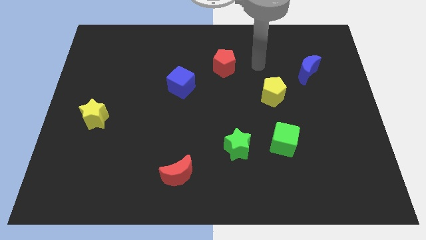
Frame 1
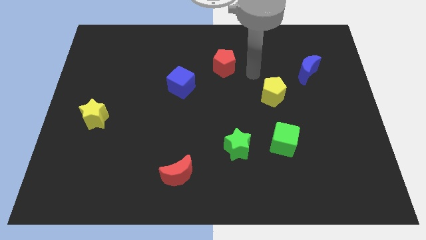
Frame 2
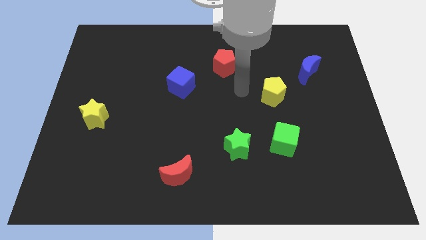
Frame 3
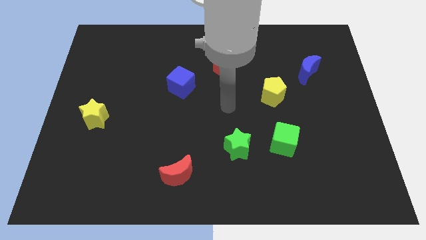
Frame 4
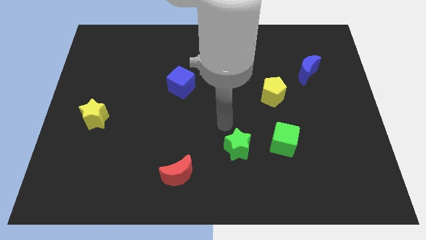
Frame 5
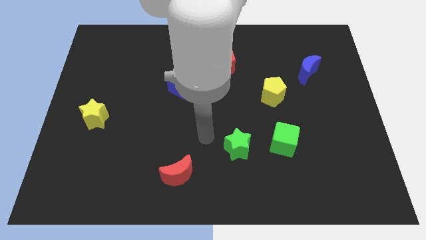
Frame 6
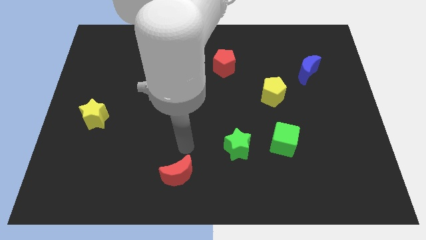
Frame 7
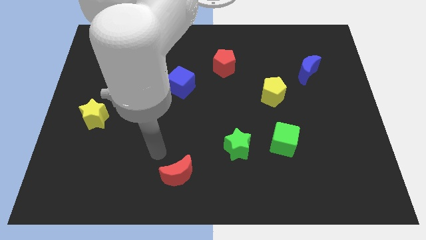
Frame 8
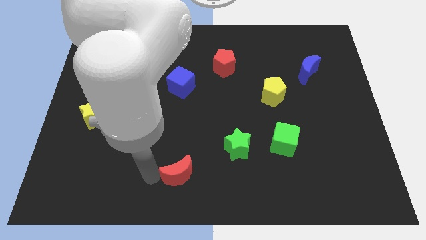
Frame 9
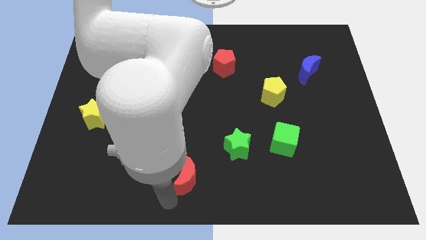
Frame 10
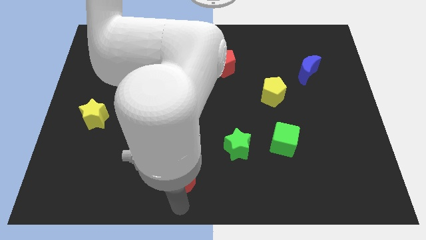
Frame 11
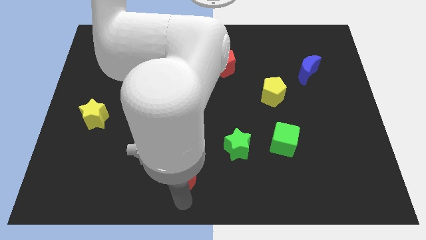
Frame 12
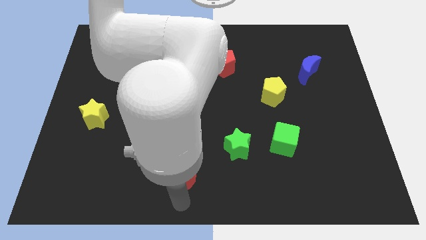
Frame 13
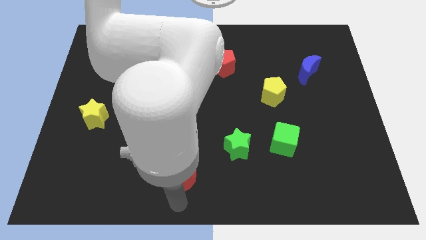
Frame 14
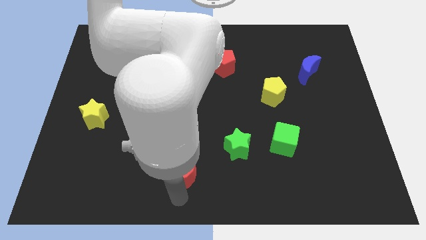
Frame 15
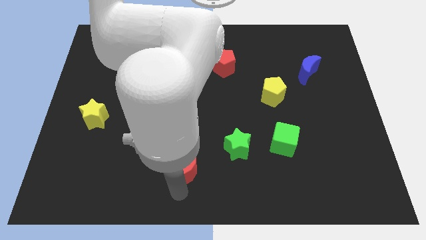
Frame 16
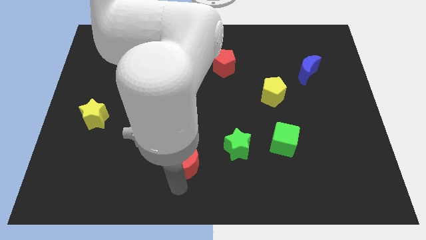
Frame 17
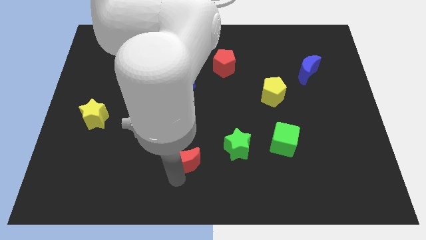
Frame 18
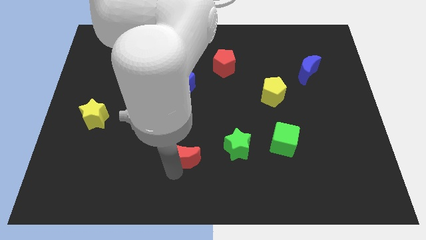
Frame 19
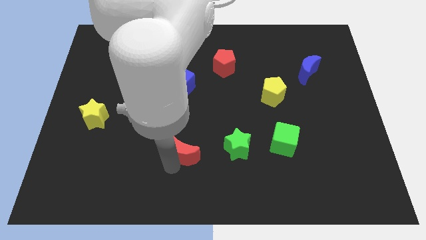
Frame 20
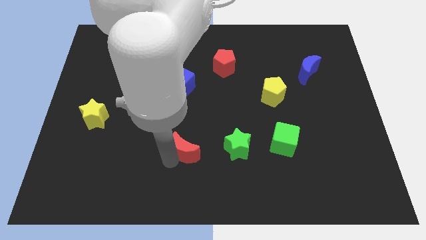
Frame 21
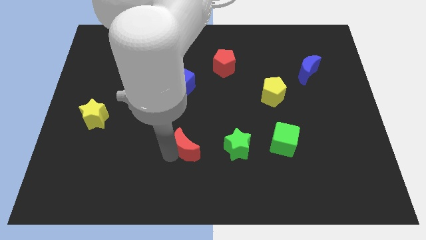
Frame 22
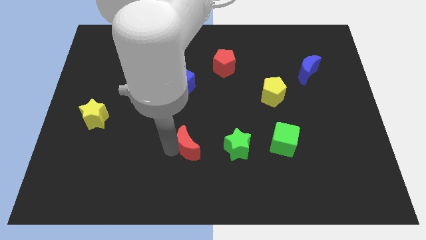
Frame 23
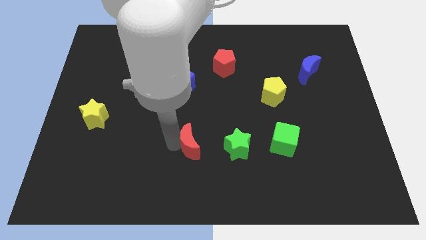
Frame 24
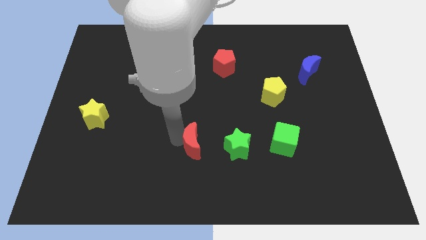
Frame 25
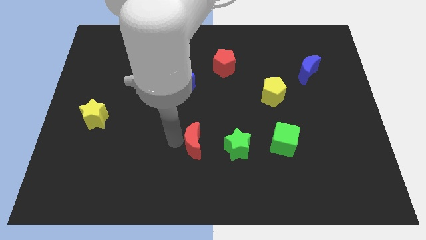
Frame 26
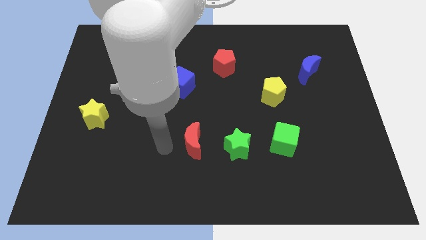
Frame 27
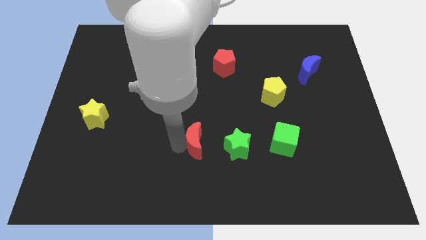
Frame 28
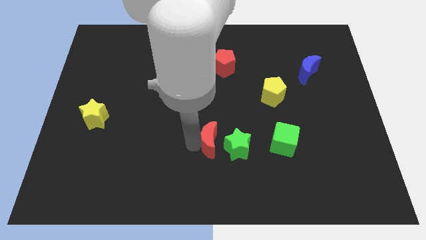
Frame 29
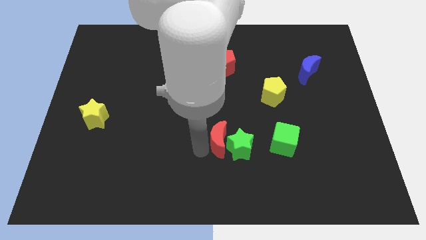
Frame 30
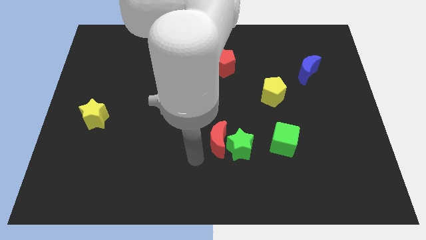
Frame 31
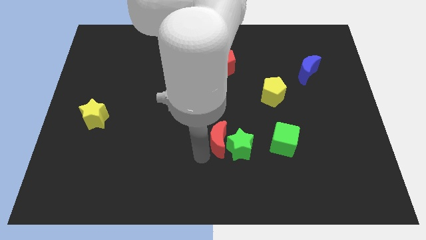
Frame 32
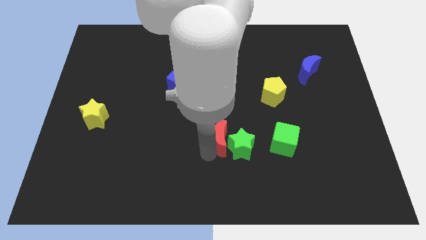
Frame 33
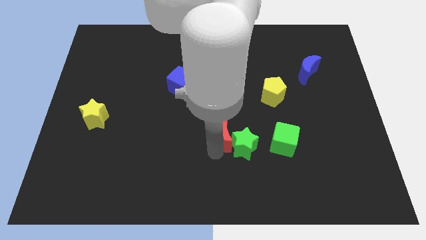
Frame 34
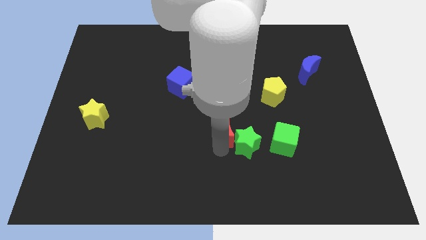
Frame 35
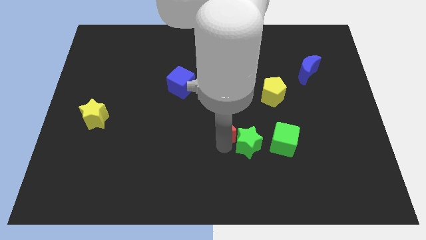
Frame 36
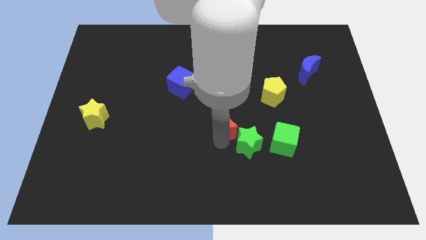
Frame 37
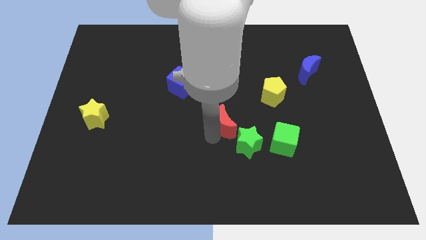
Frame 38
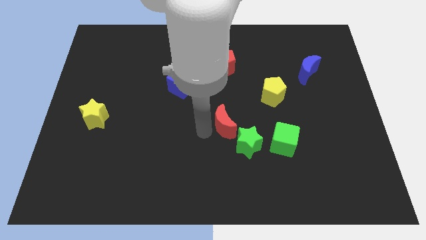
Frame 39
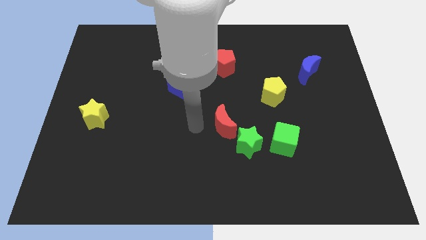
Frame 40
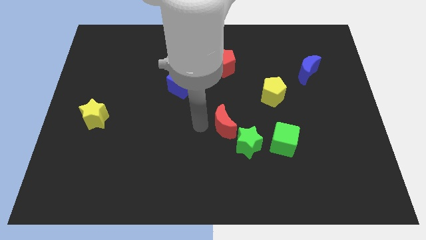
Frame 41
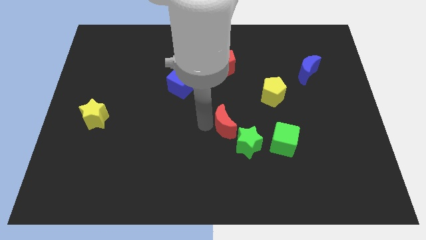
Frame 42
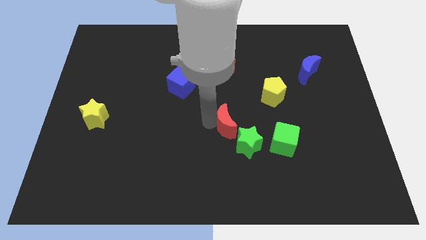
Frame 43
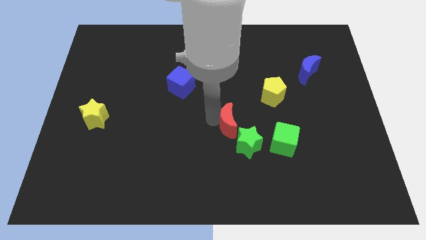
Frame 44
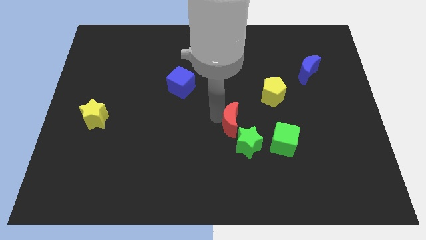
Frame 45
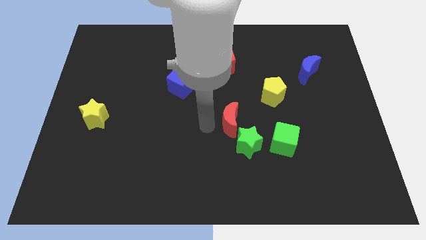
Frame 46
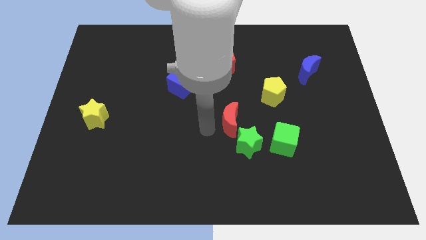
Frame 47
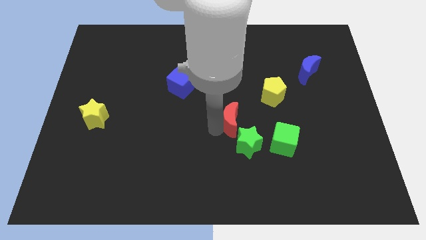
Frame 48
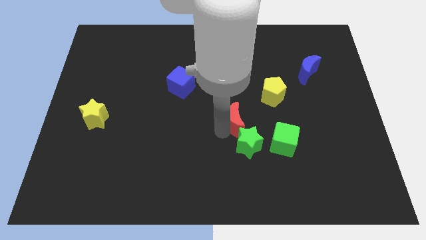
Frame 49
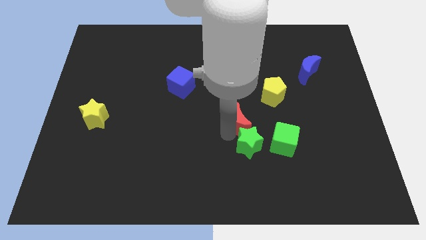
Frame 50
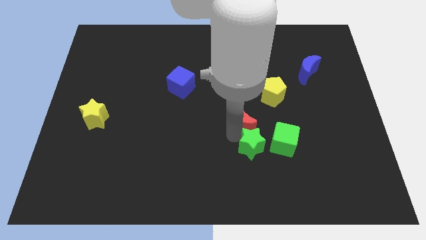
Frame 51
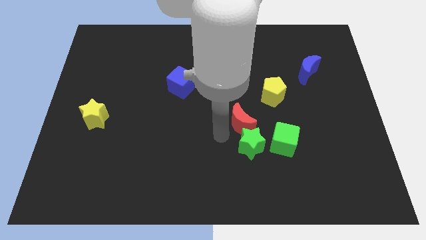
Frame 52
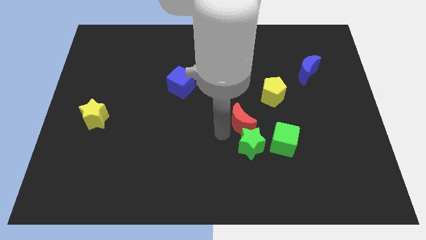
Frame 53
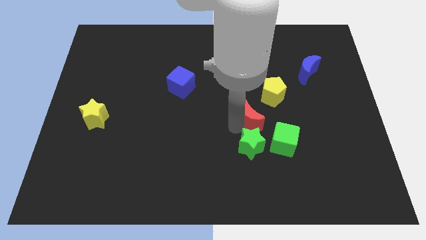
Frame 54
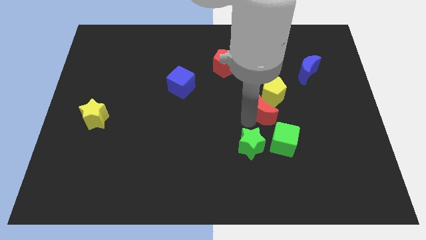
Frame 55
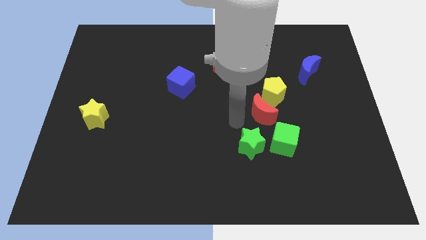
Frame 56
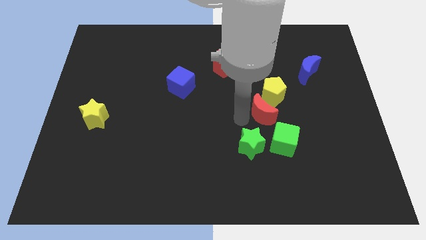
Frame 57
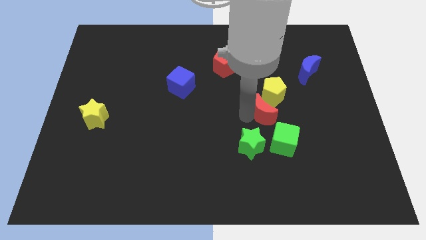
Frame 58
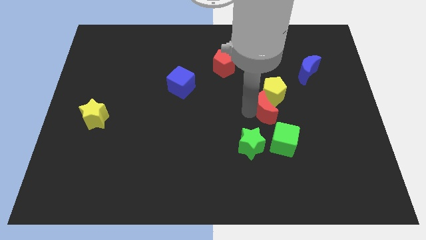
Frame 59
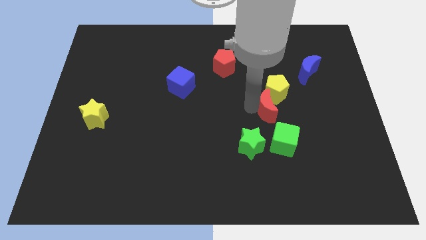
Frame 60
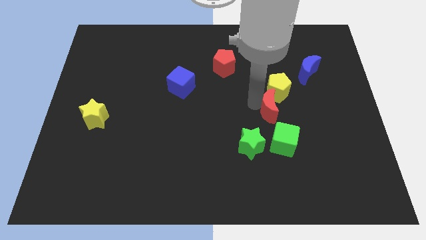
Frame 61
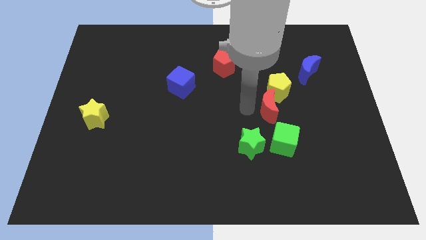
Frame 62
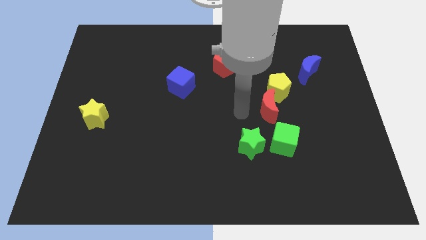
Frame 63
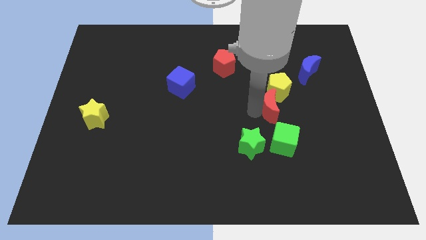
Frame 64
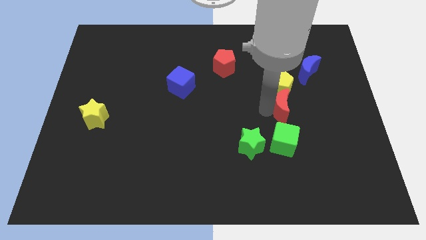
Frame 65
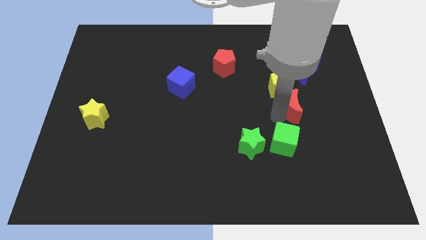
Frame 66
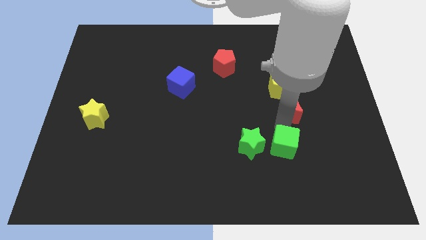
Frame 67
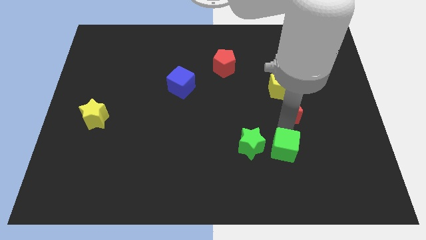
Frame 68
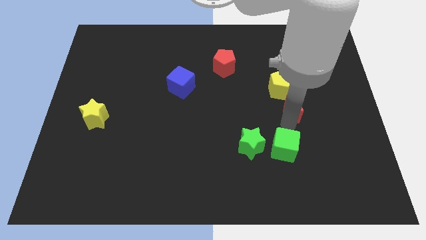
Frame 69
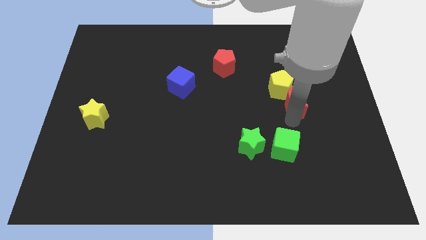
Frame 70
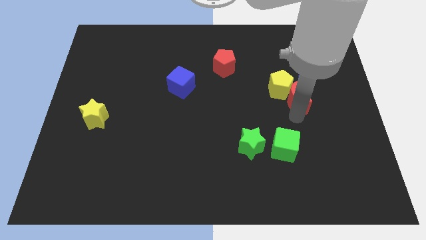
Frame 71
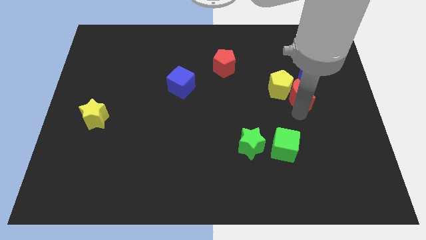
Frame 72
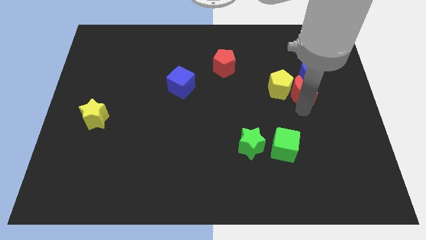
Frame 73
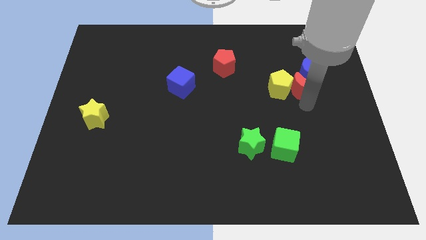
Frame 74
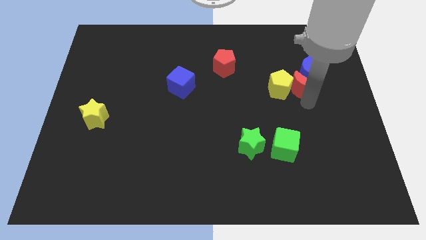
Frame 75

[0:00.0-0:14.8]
move the red moon next to the blue moon

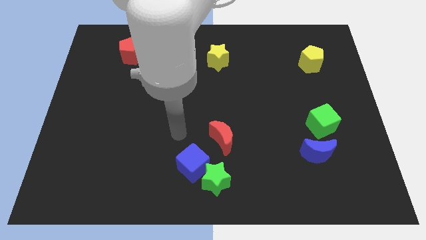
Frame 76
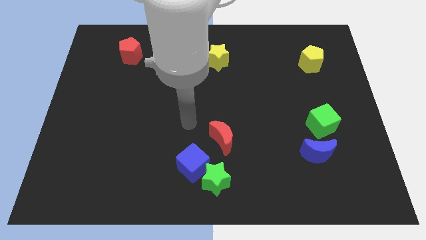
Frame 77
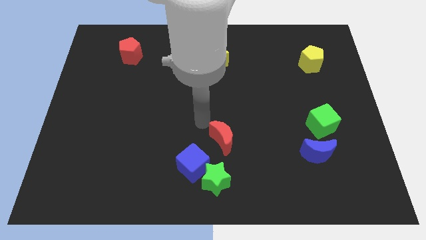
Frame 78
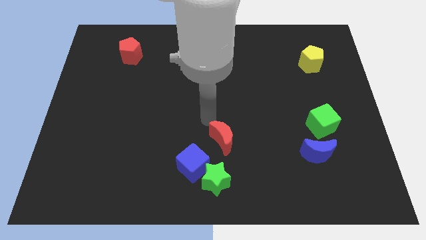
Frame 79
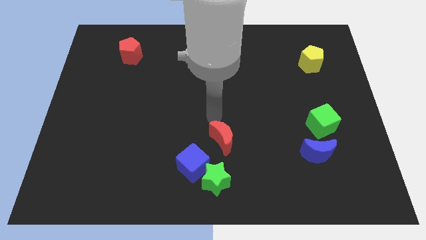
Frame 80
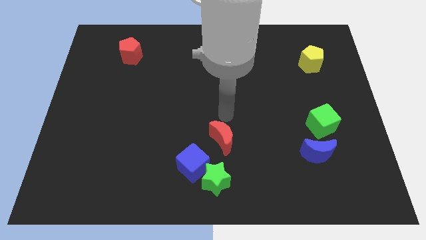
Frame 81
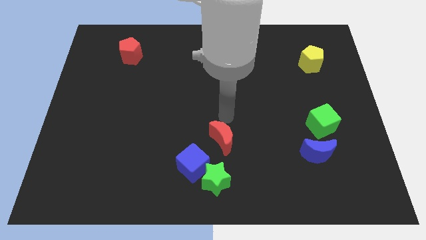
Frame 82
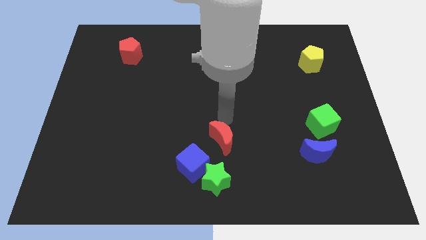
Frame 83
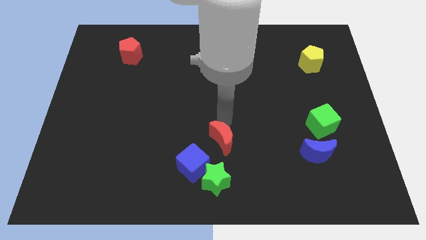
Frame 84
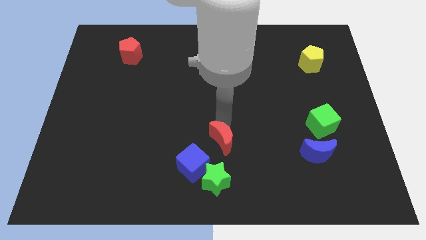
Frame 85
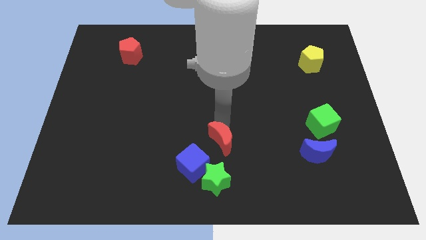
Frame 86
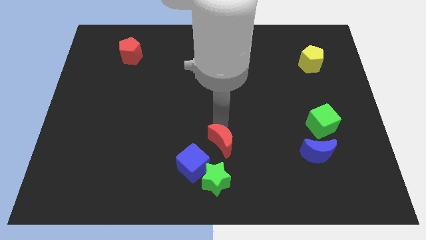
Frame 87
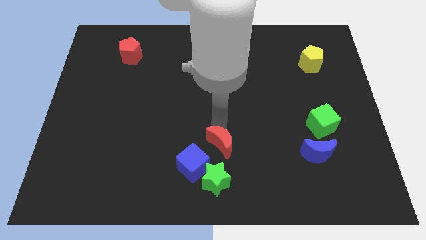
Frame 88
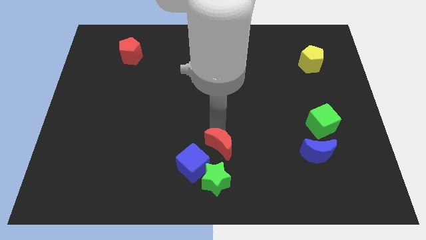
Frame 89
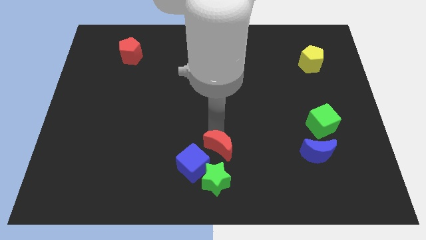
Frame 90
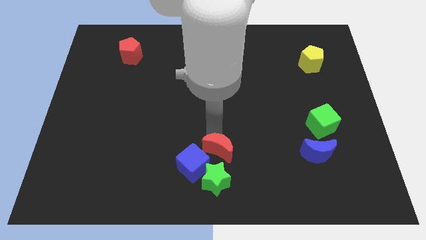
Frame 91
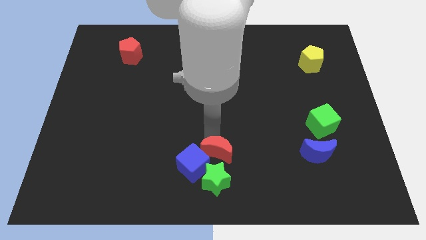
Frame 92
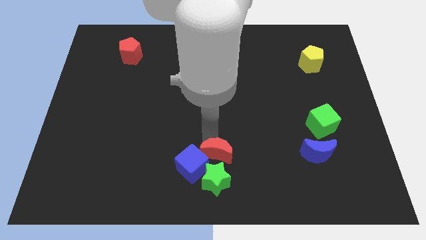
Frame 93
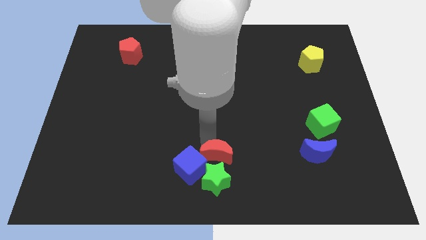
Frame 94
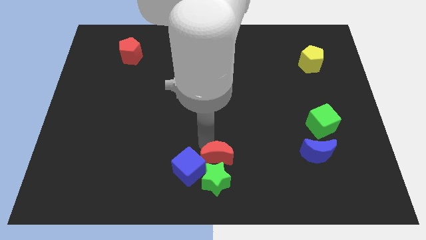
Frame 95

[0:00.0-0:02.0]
put the red moon next to the green star
